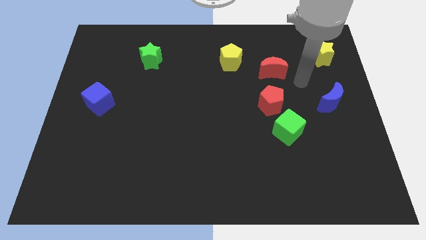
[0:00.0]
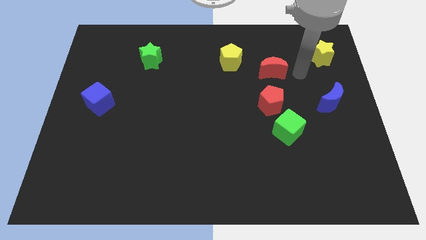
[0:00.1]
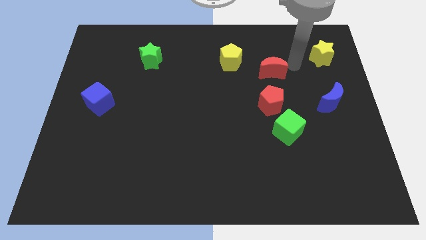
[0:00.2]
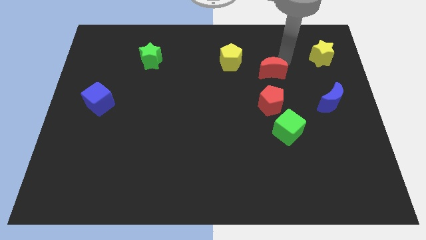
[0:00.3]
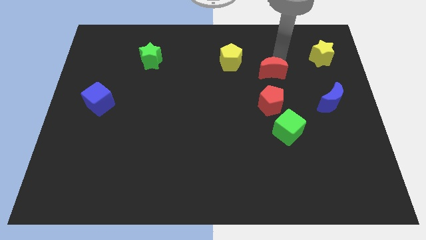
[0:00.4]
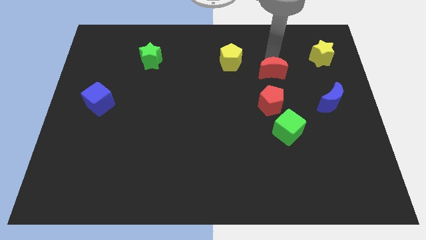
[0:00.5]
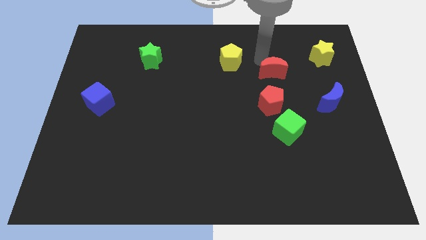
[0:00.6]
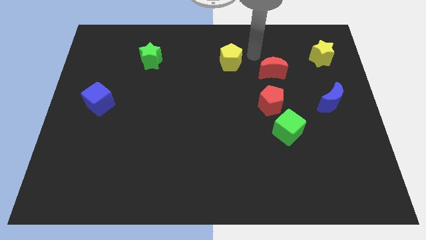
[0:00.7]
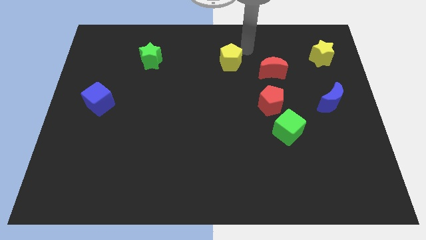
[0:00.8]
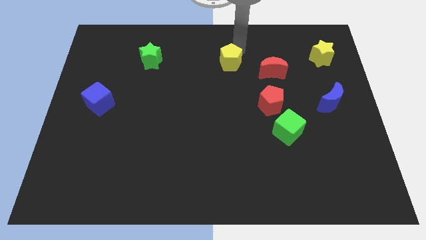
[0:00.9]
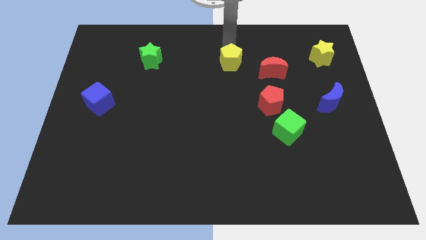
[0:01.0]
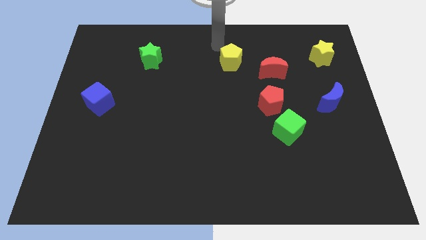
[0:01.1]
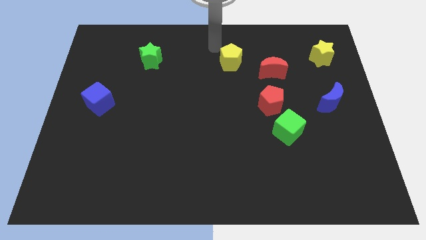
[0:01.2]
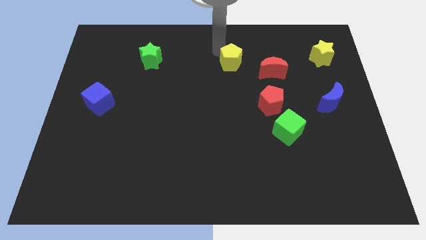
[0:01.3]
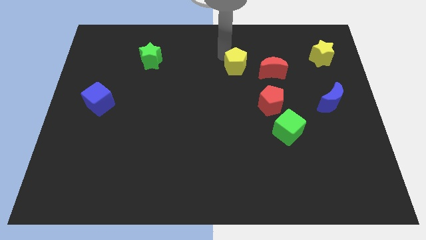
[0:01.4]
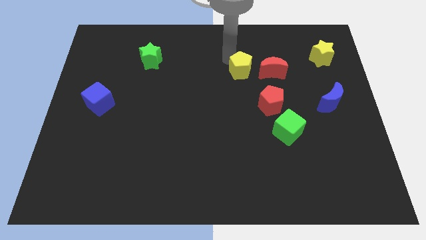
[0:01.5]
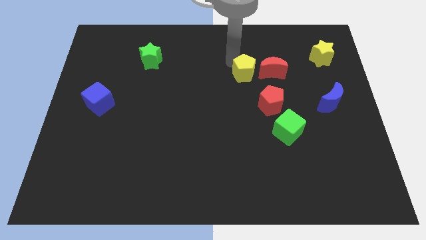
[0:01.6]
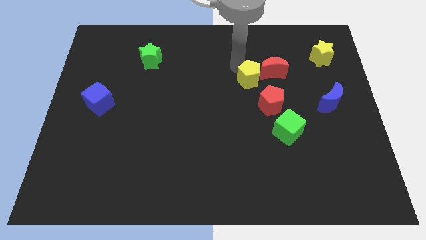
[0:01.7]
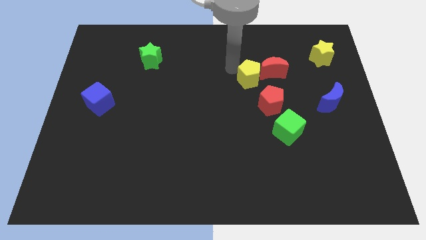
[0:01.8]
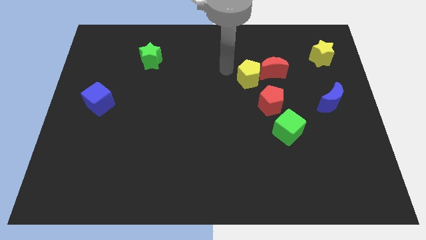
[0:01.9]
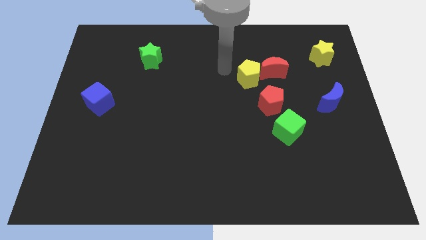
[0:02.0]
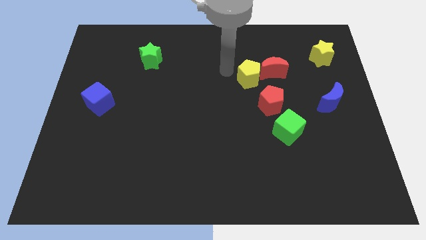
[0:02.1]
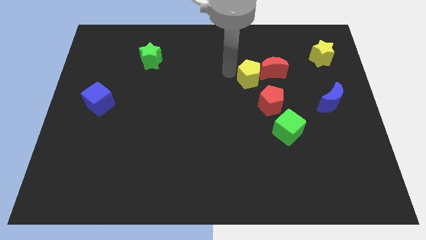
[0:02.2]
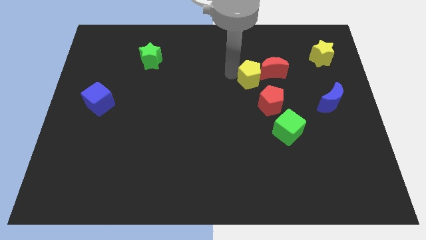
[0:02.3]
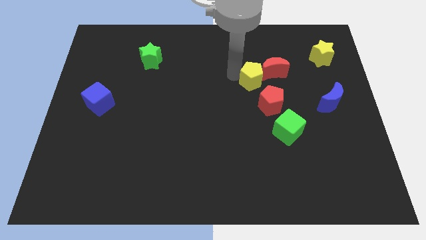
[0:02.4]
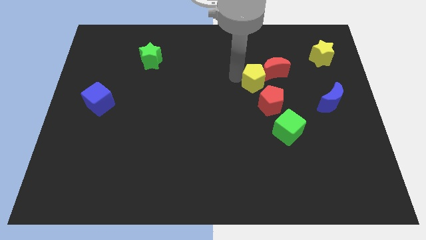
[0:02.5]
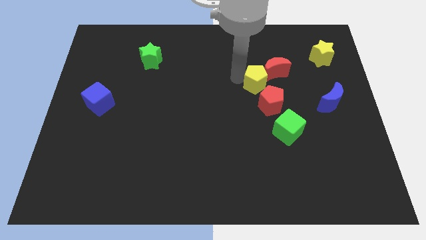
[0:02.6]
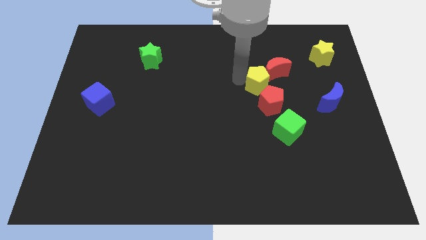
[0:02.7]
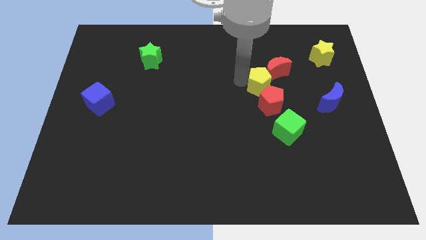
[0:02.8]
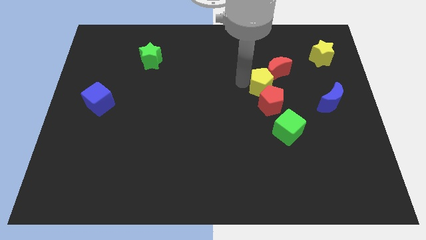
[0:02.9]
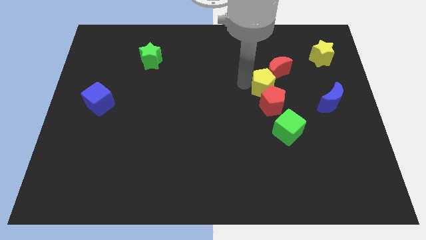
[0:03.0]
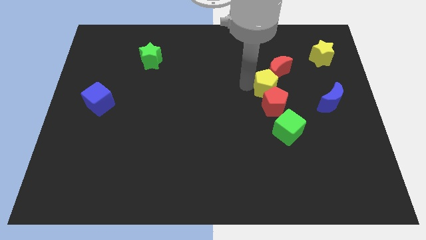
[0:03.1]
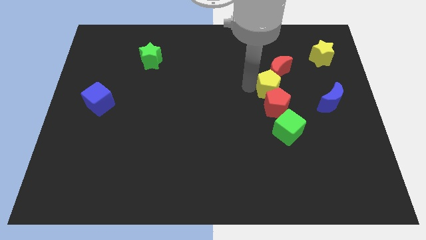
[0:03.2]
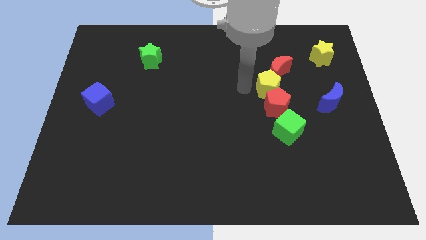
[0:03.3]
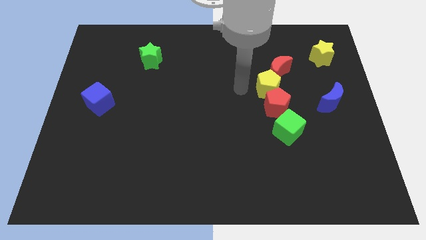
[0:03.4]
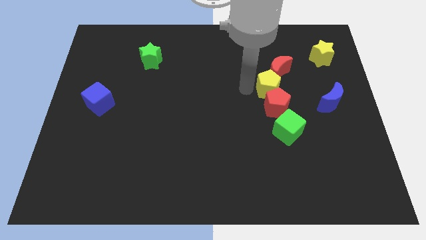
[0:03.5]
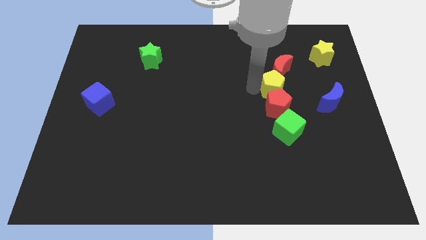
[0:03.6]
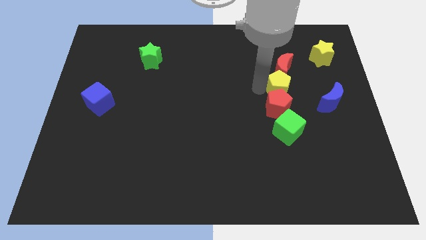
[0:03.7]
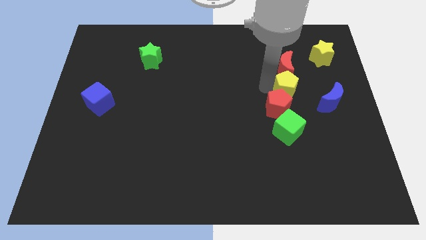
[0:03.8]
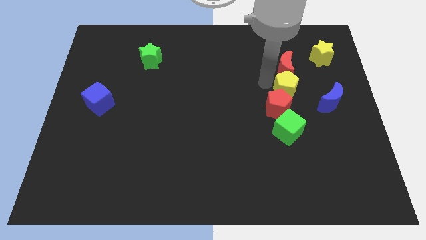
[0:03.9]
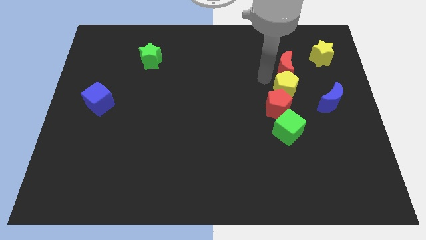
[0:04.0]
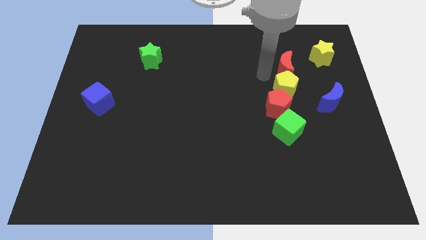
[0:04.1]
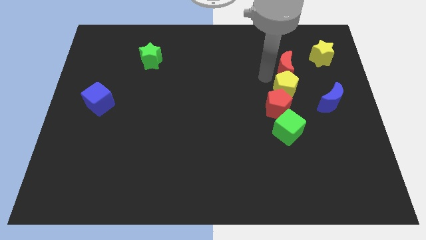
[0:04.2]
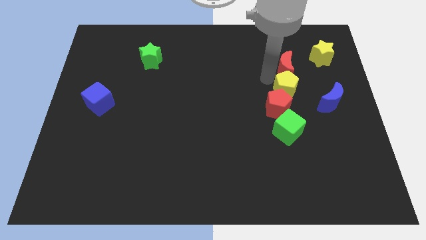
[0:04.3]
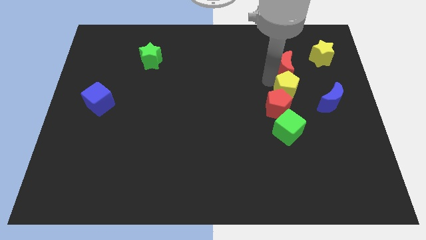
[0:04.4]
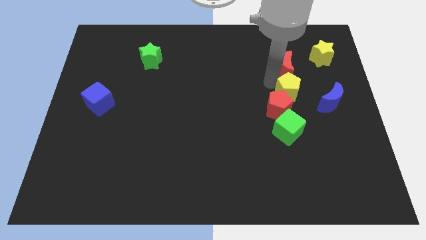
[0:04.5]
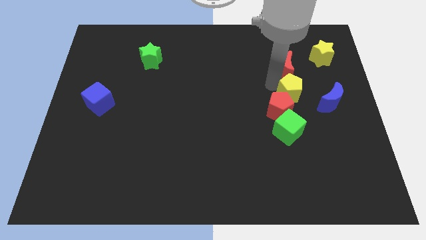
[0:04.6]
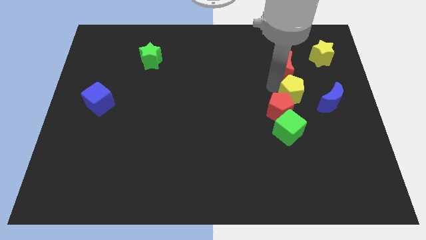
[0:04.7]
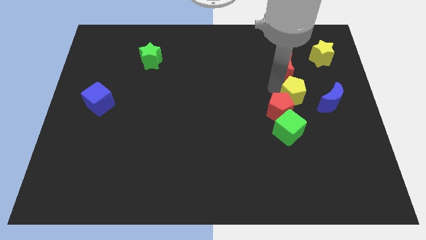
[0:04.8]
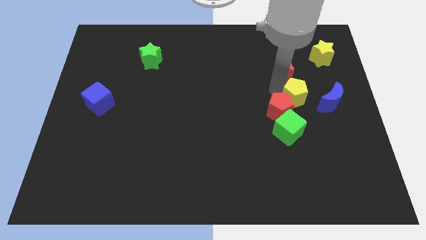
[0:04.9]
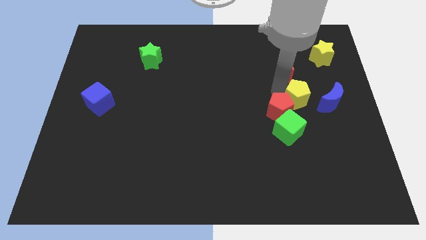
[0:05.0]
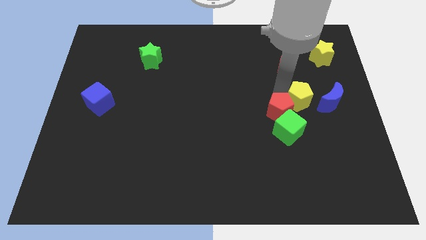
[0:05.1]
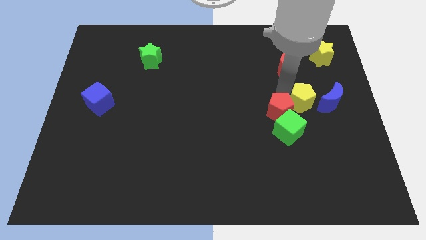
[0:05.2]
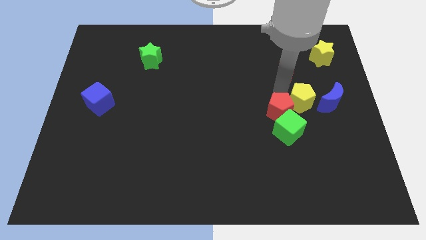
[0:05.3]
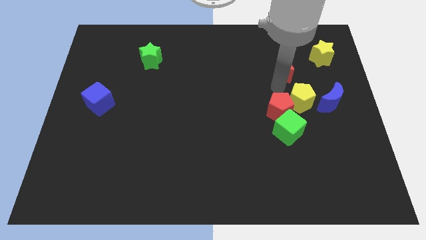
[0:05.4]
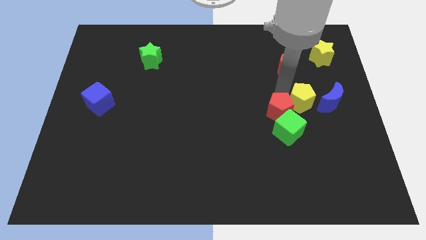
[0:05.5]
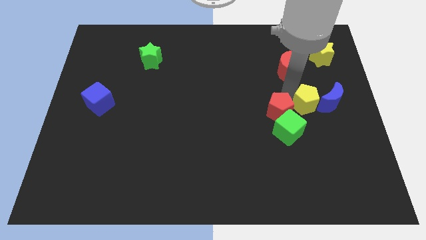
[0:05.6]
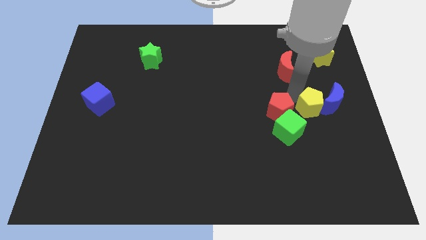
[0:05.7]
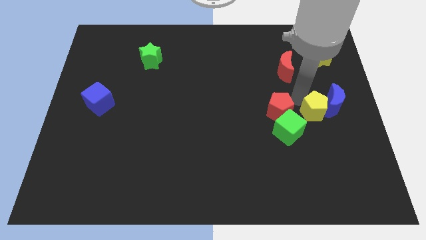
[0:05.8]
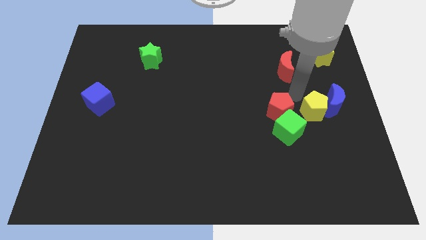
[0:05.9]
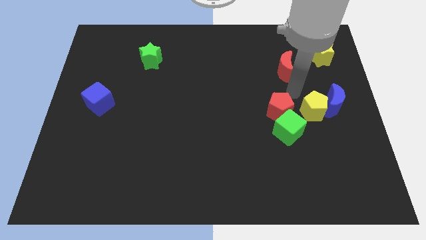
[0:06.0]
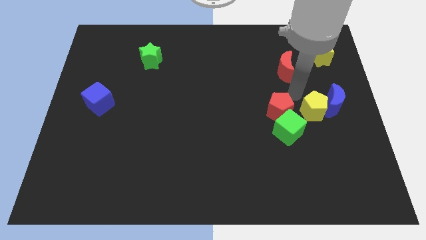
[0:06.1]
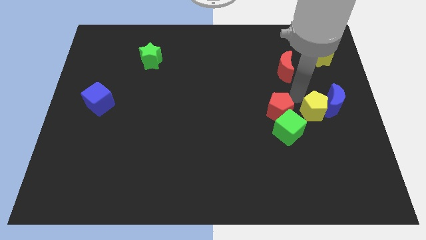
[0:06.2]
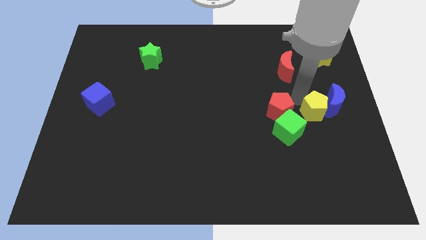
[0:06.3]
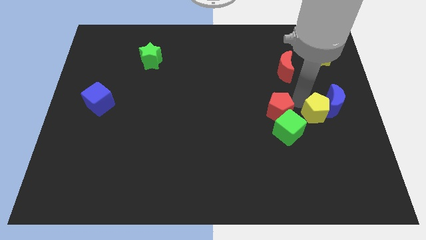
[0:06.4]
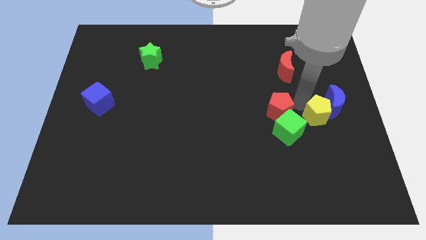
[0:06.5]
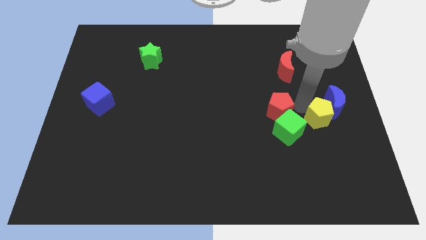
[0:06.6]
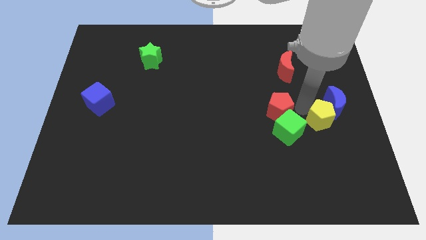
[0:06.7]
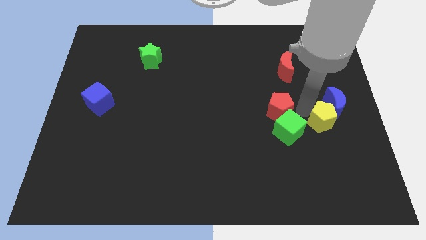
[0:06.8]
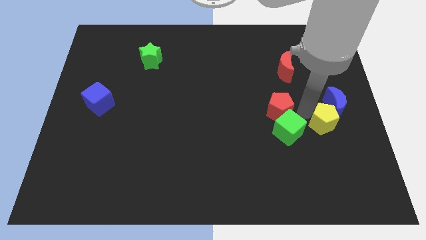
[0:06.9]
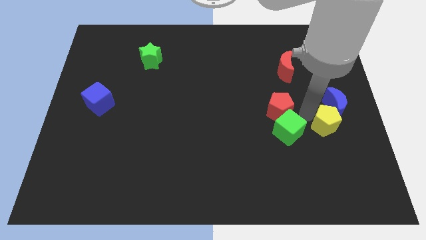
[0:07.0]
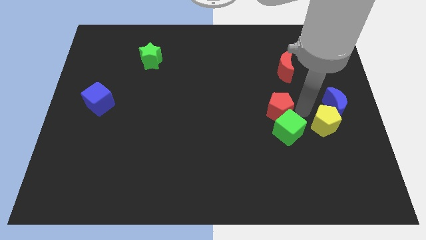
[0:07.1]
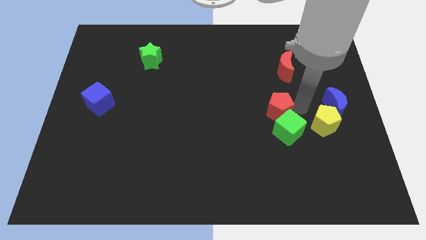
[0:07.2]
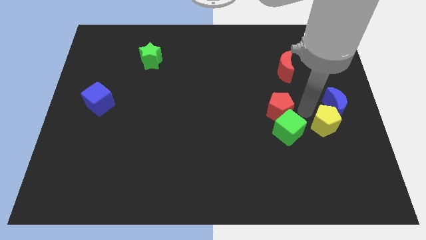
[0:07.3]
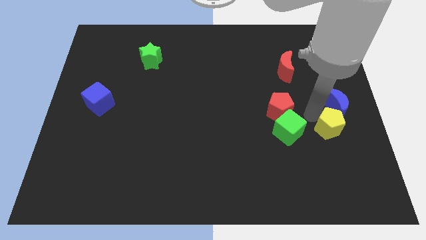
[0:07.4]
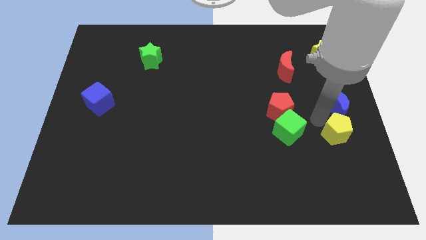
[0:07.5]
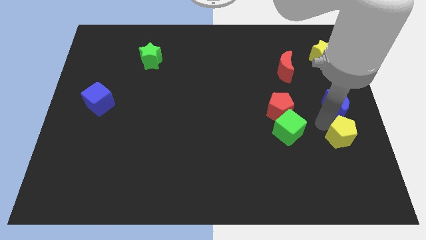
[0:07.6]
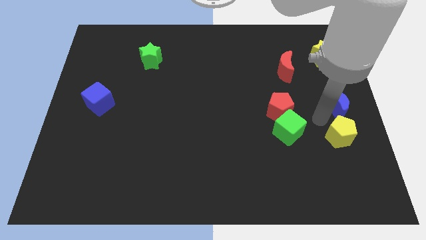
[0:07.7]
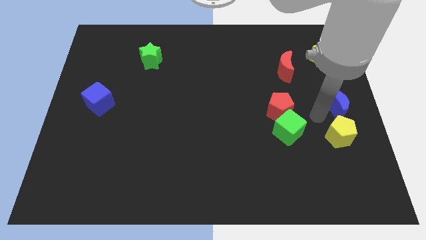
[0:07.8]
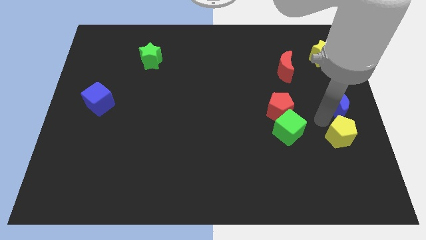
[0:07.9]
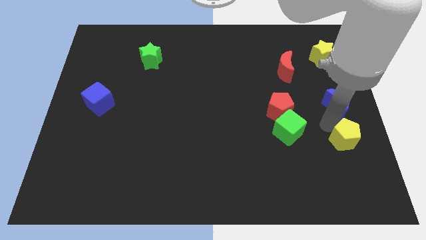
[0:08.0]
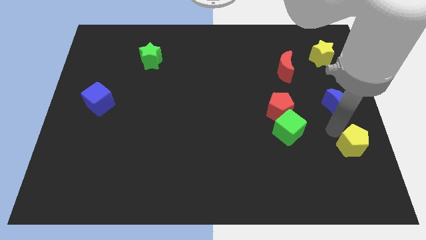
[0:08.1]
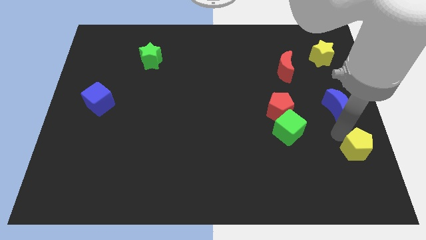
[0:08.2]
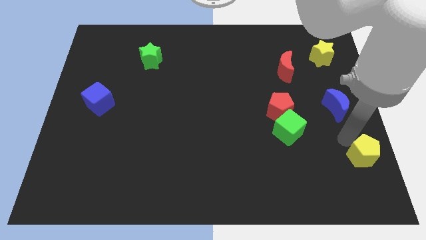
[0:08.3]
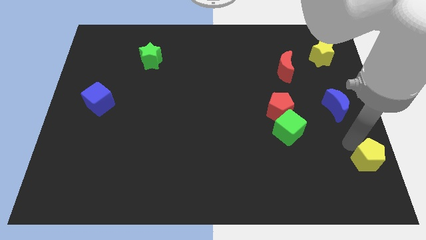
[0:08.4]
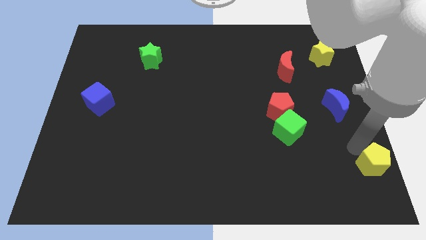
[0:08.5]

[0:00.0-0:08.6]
slide the yellow pentagon to the bottom right corner
